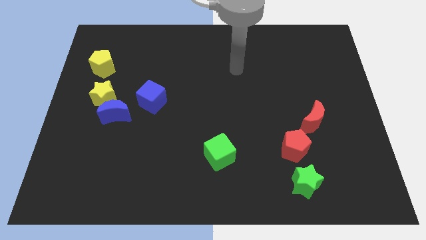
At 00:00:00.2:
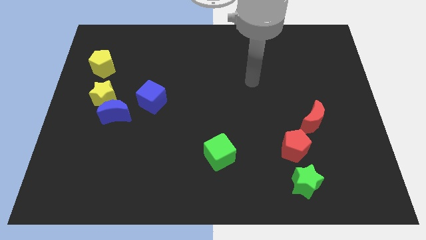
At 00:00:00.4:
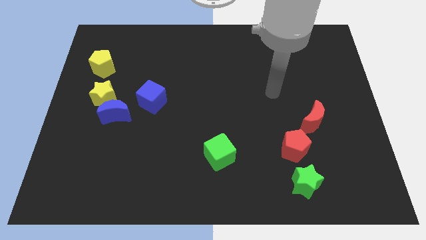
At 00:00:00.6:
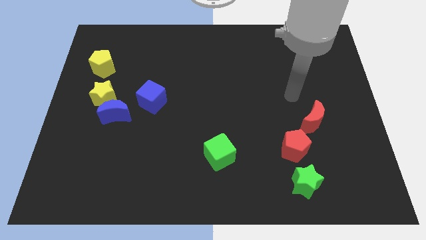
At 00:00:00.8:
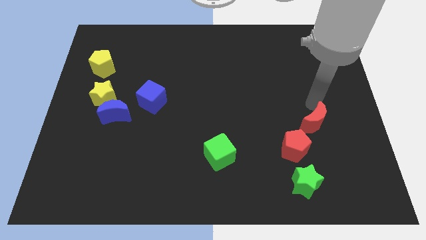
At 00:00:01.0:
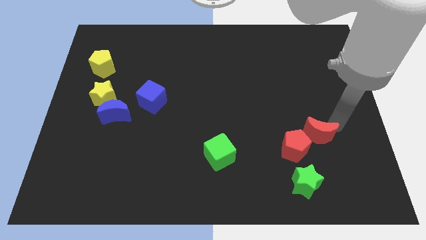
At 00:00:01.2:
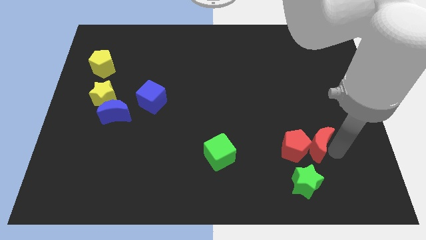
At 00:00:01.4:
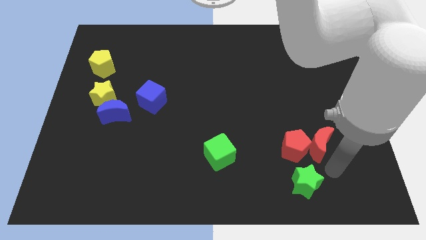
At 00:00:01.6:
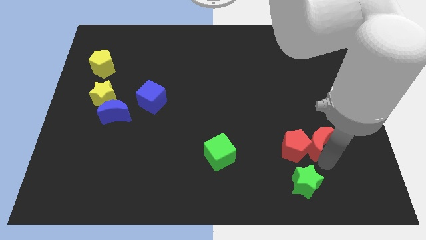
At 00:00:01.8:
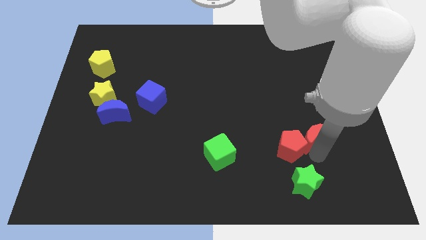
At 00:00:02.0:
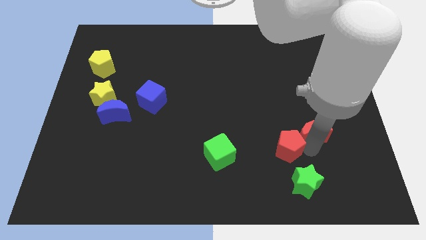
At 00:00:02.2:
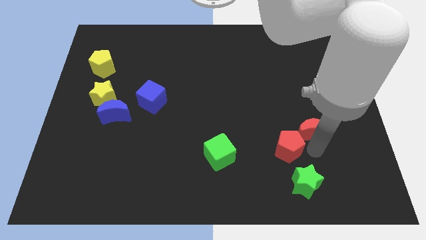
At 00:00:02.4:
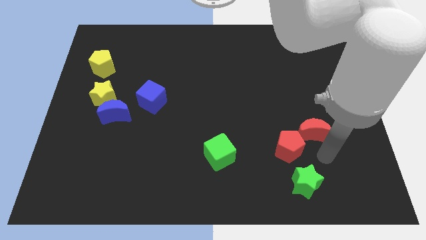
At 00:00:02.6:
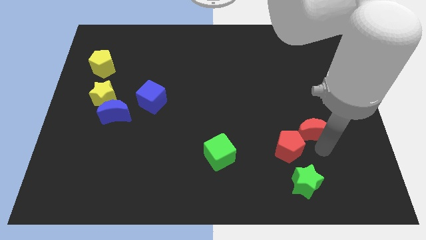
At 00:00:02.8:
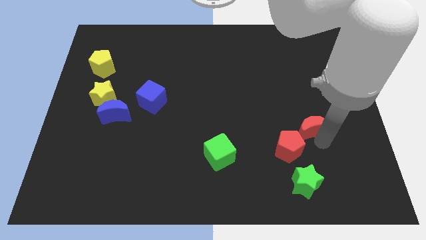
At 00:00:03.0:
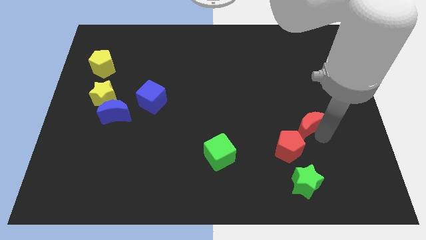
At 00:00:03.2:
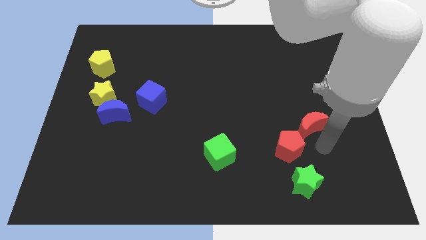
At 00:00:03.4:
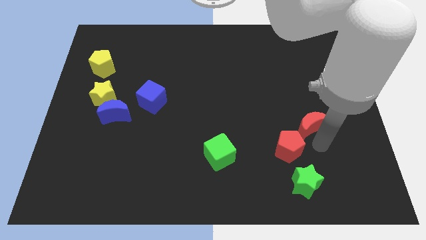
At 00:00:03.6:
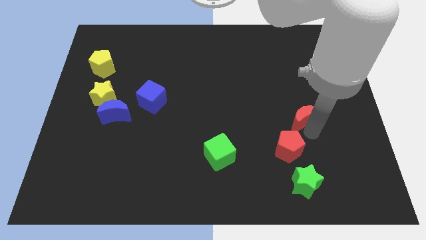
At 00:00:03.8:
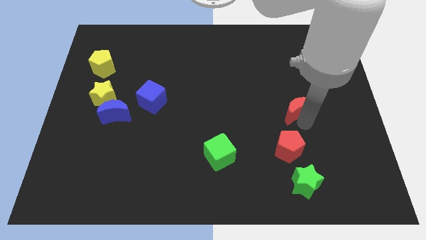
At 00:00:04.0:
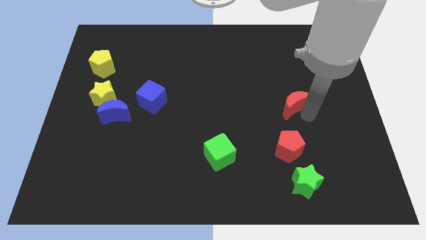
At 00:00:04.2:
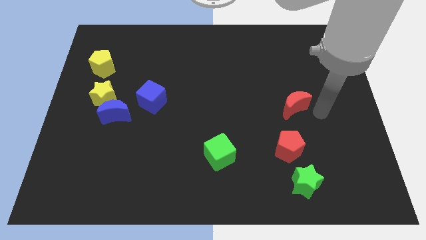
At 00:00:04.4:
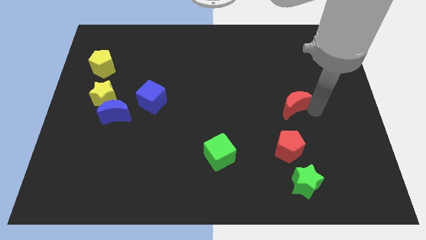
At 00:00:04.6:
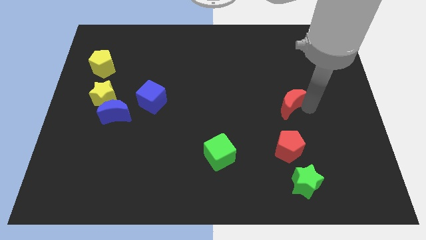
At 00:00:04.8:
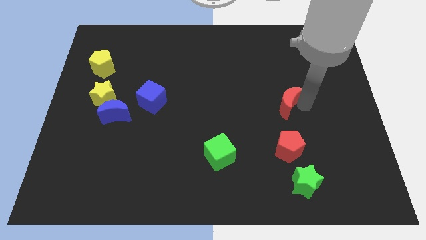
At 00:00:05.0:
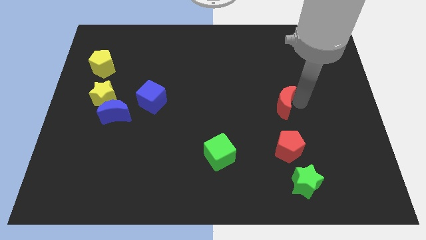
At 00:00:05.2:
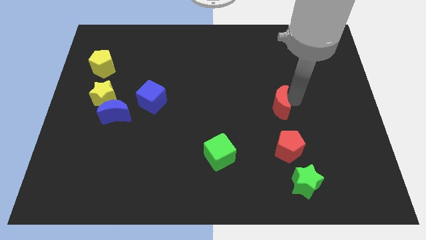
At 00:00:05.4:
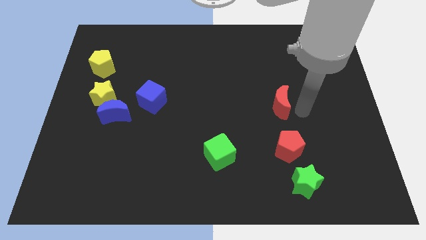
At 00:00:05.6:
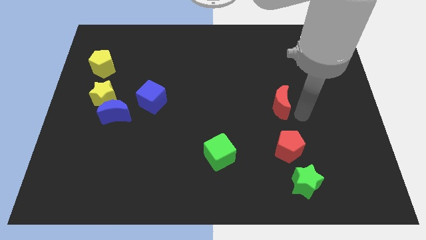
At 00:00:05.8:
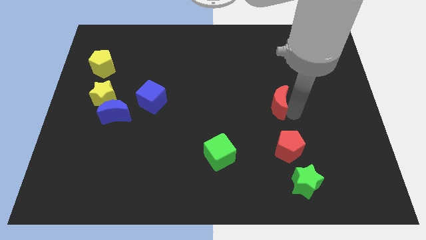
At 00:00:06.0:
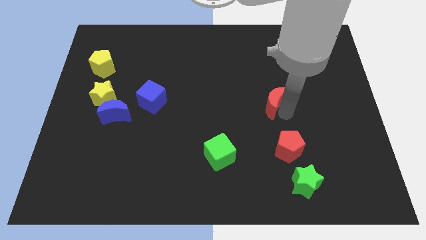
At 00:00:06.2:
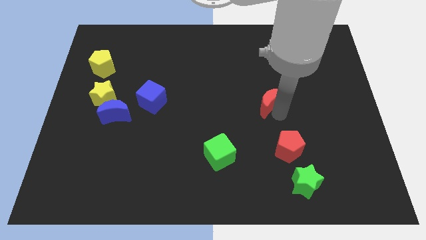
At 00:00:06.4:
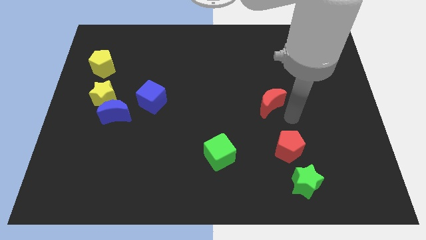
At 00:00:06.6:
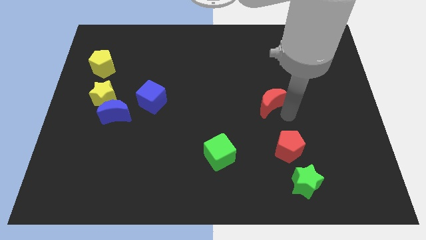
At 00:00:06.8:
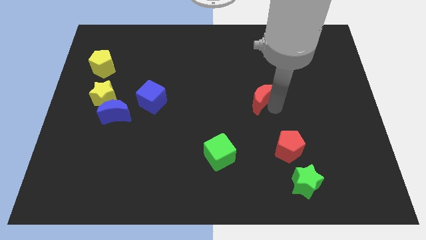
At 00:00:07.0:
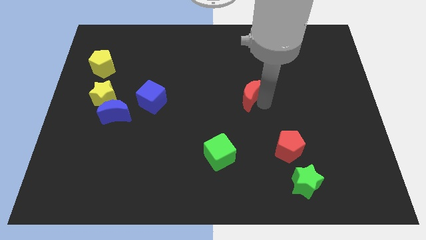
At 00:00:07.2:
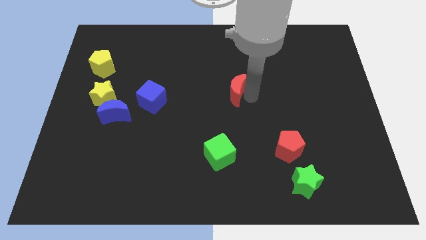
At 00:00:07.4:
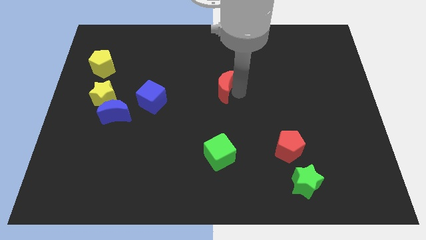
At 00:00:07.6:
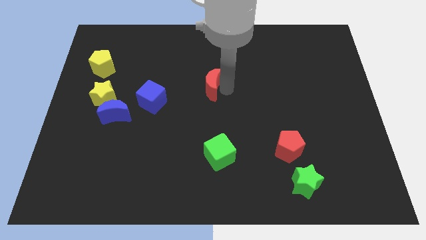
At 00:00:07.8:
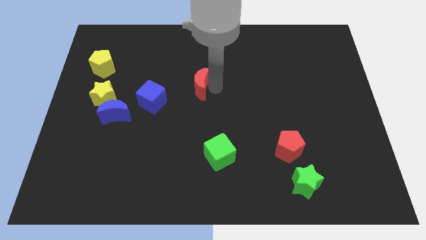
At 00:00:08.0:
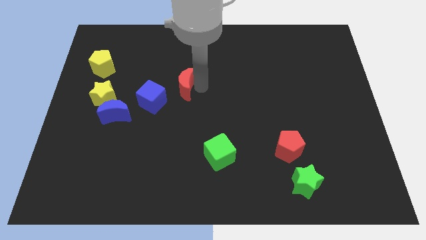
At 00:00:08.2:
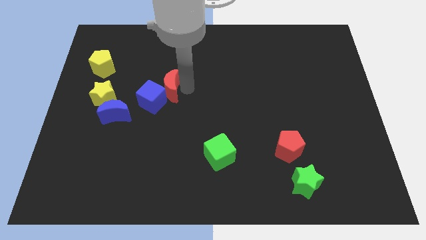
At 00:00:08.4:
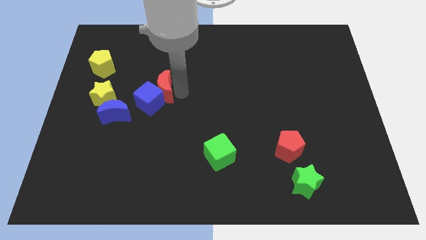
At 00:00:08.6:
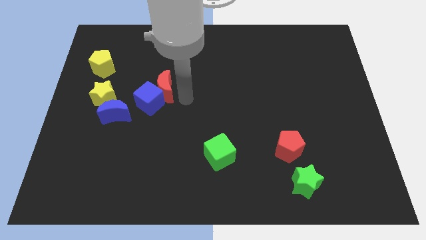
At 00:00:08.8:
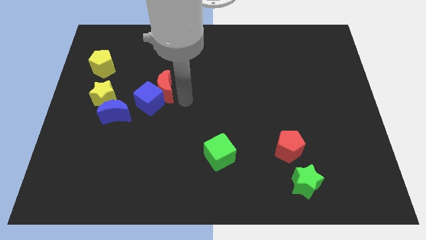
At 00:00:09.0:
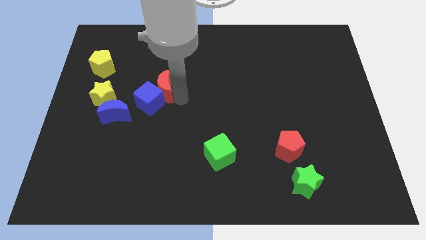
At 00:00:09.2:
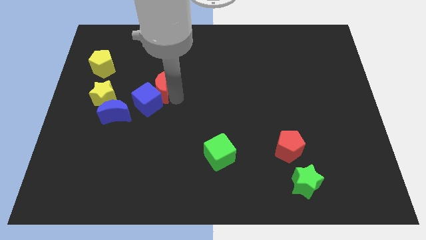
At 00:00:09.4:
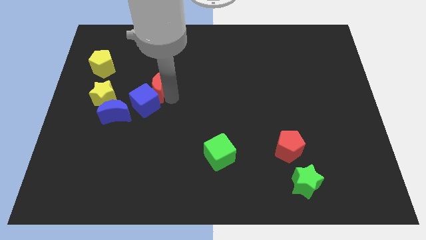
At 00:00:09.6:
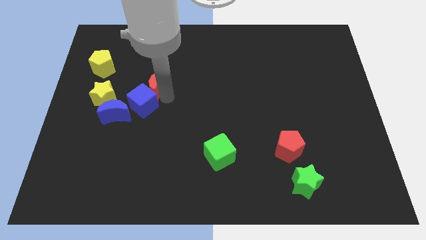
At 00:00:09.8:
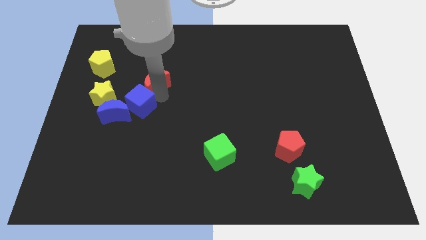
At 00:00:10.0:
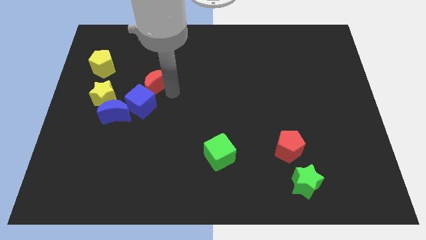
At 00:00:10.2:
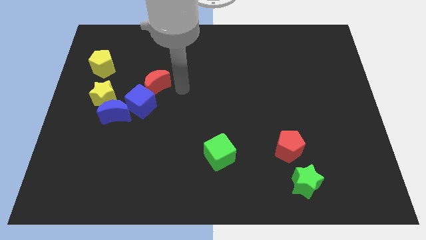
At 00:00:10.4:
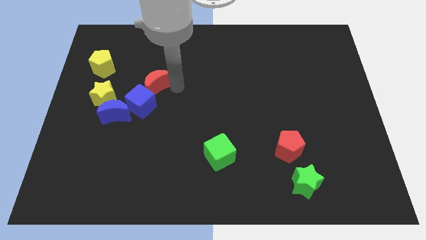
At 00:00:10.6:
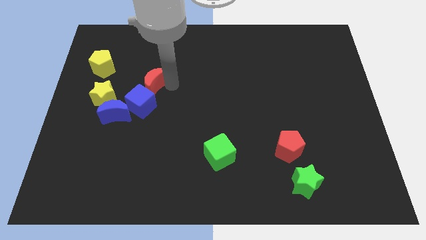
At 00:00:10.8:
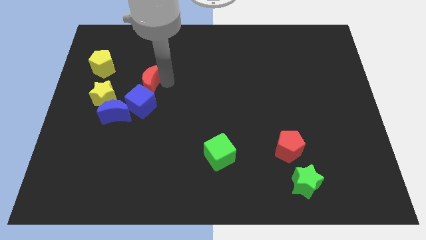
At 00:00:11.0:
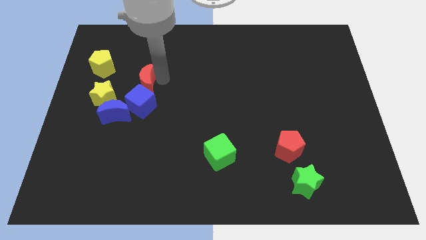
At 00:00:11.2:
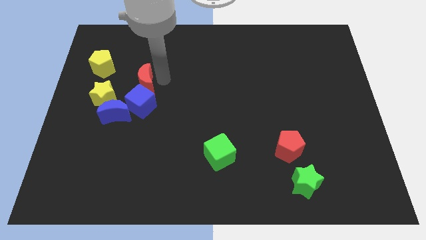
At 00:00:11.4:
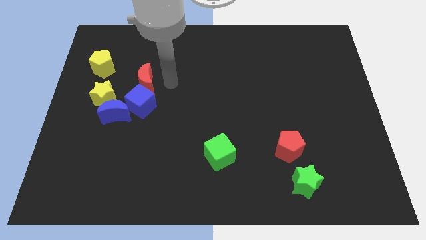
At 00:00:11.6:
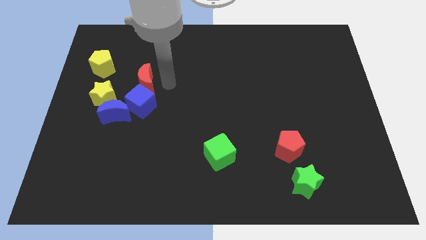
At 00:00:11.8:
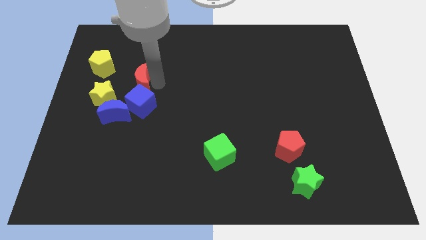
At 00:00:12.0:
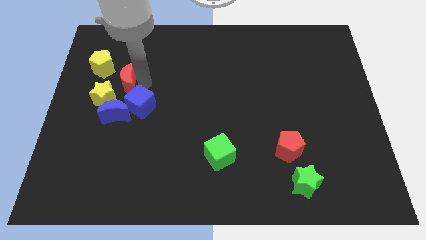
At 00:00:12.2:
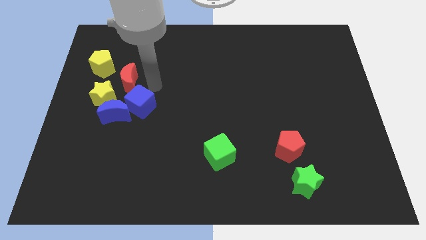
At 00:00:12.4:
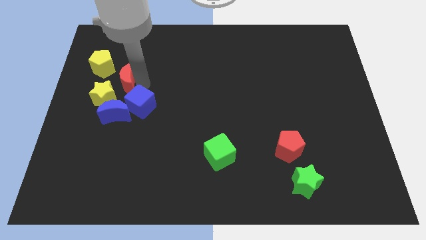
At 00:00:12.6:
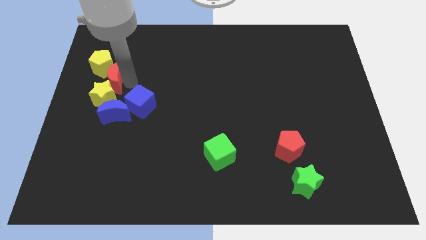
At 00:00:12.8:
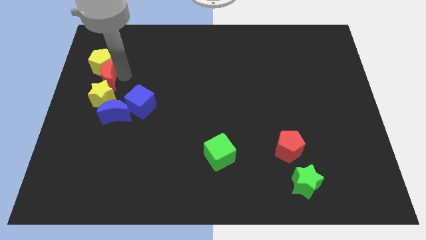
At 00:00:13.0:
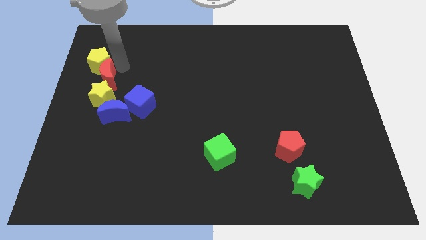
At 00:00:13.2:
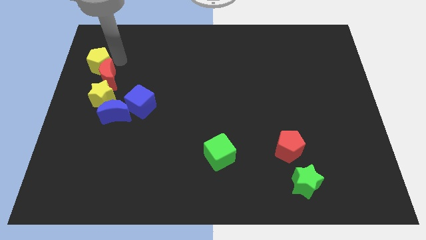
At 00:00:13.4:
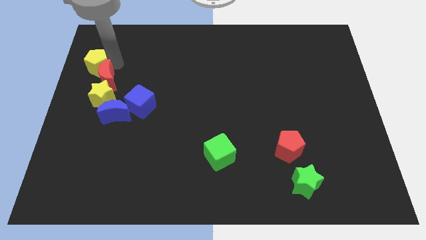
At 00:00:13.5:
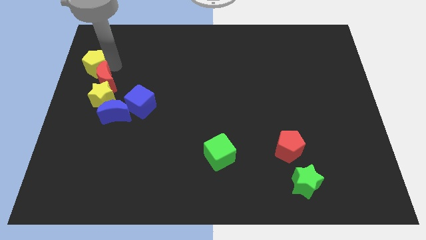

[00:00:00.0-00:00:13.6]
push the red moon to the top left of the blue moon

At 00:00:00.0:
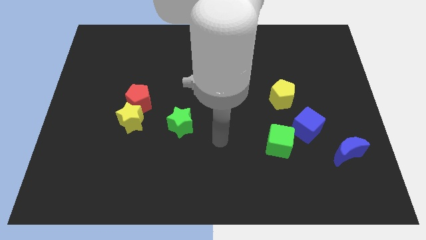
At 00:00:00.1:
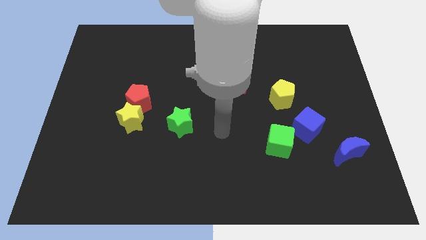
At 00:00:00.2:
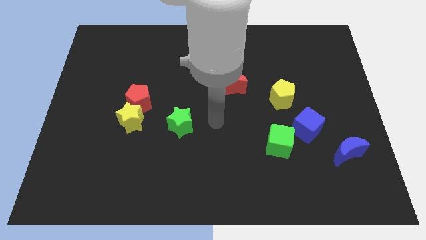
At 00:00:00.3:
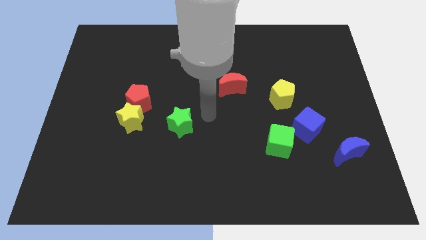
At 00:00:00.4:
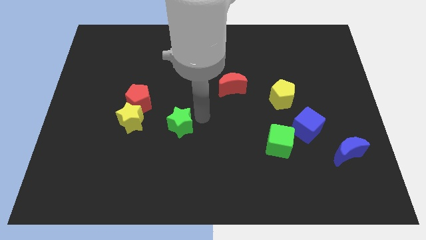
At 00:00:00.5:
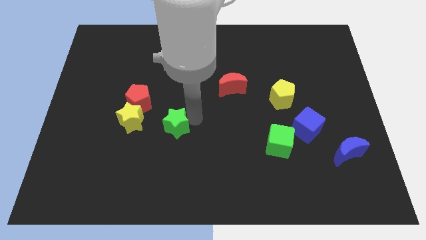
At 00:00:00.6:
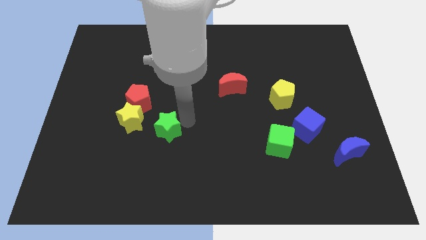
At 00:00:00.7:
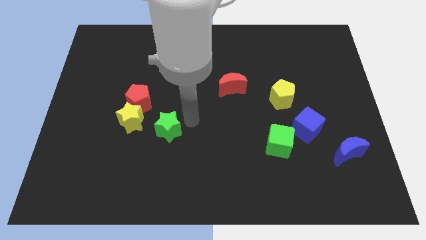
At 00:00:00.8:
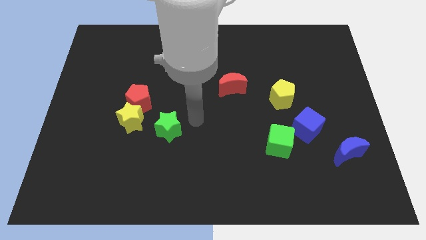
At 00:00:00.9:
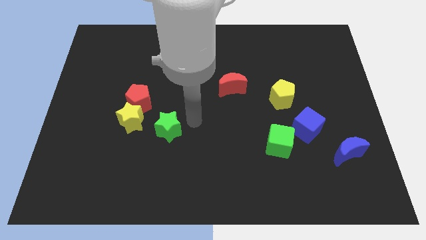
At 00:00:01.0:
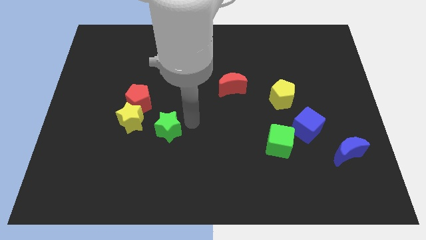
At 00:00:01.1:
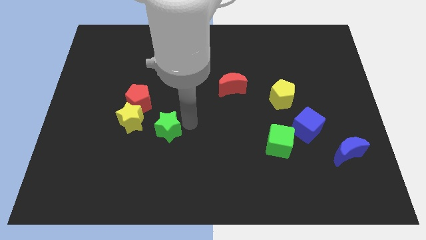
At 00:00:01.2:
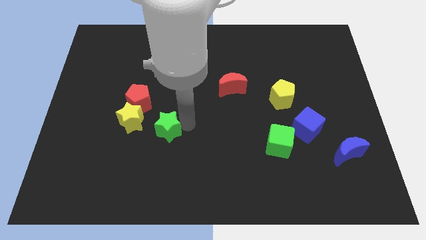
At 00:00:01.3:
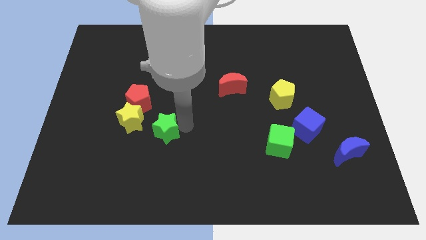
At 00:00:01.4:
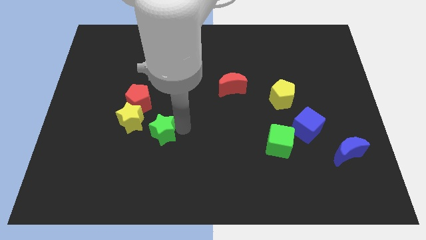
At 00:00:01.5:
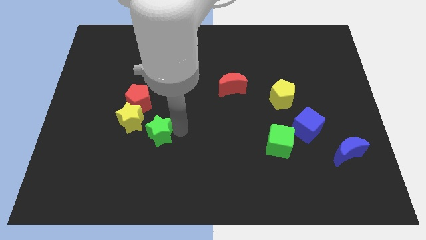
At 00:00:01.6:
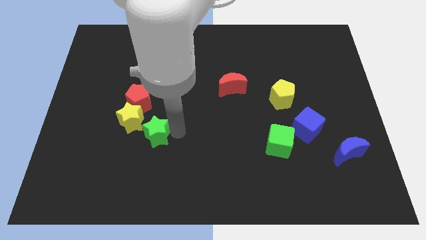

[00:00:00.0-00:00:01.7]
push the green star to the bottom side of the red pentagon
